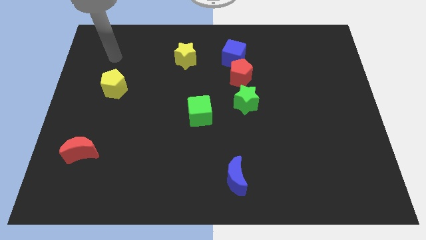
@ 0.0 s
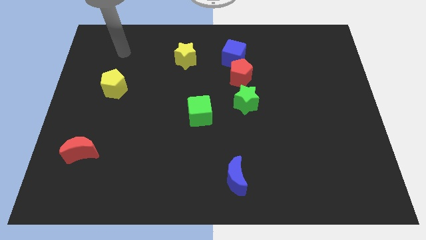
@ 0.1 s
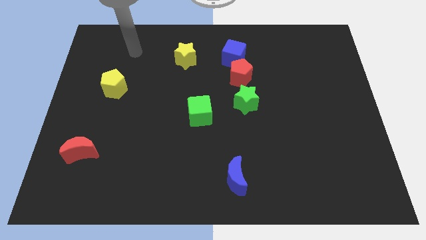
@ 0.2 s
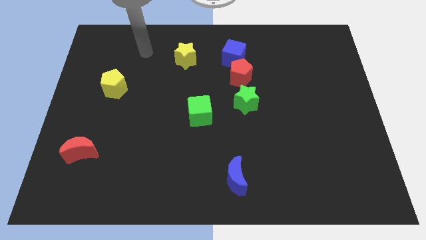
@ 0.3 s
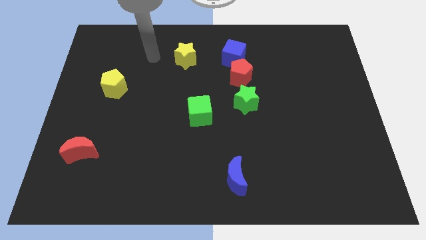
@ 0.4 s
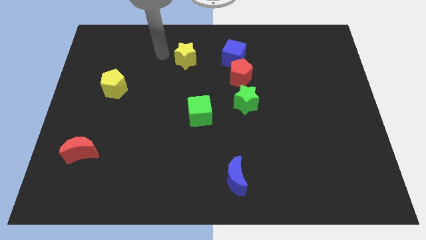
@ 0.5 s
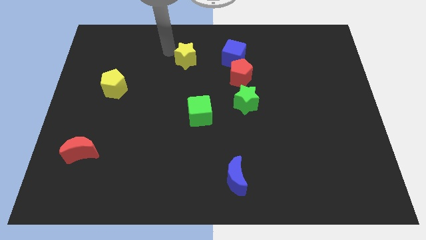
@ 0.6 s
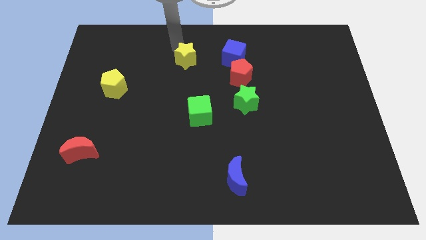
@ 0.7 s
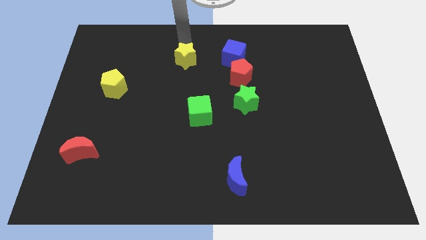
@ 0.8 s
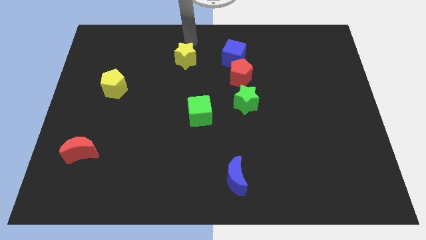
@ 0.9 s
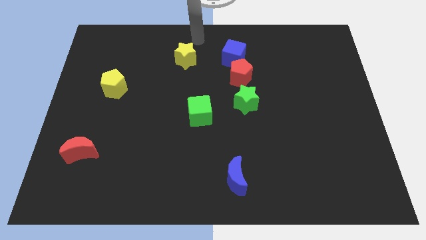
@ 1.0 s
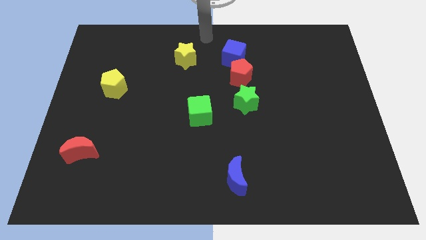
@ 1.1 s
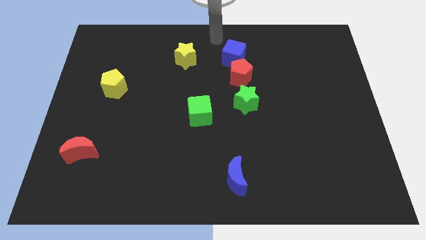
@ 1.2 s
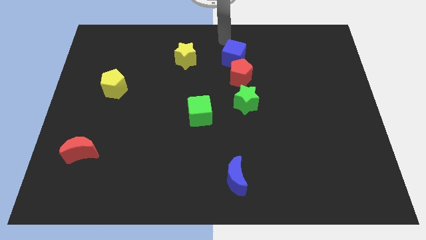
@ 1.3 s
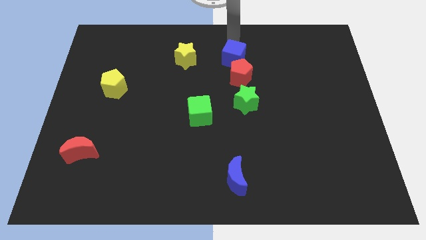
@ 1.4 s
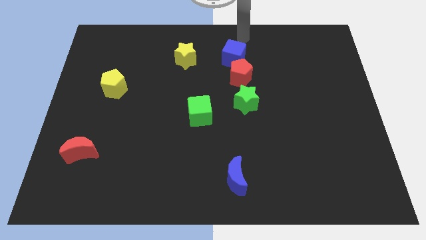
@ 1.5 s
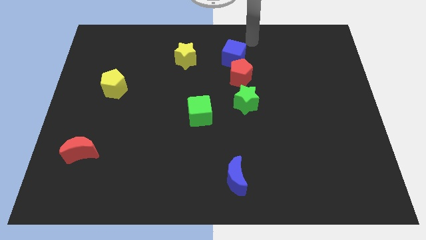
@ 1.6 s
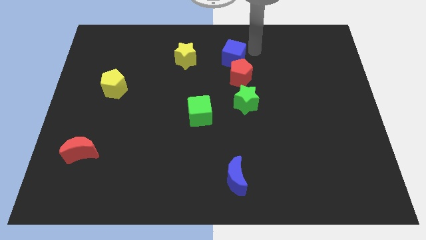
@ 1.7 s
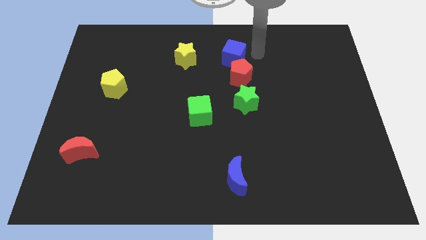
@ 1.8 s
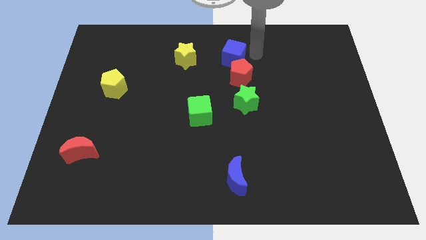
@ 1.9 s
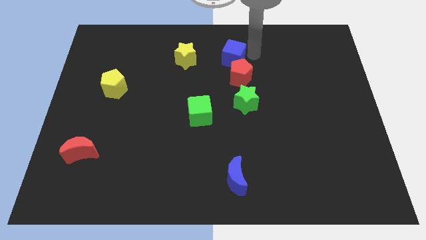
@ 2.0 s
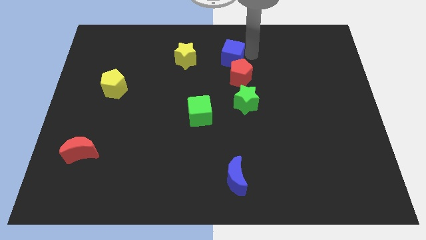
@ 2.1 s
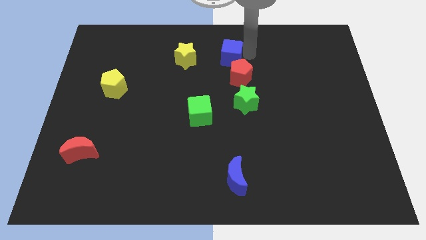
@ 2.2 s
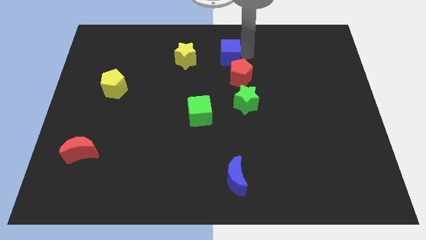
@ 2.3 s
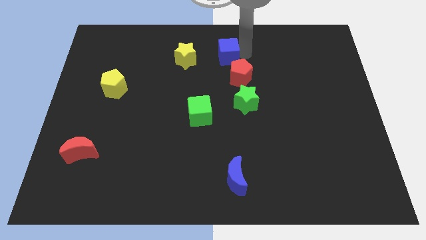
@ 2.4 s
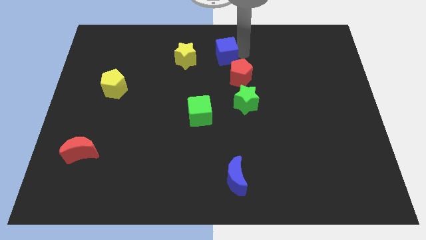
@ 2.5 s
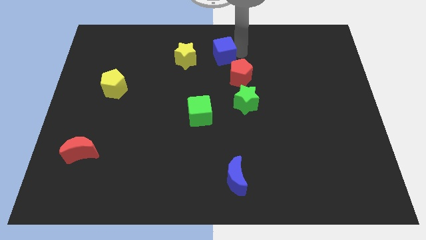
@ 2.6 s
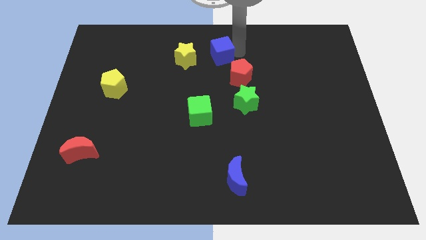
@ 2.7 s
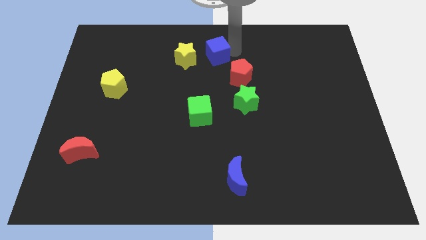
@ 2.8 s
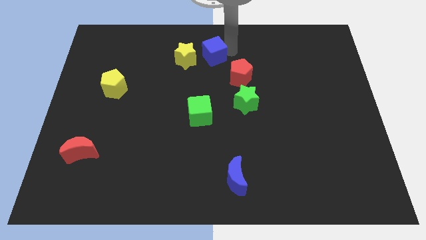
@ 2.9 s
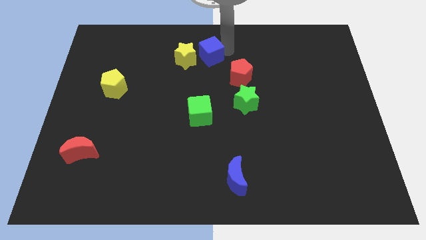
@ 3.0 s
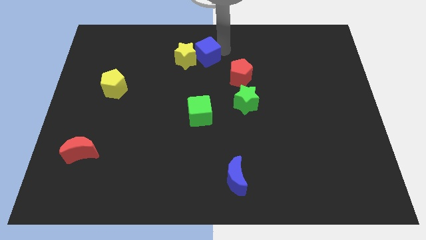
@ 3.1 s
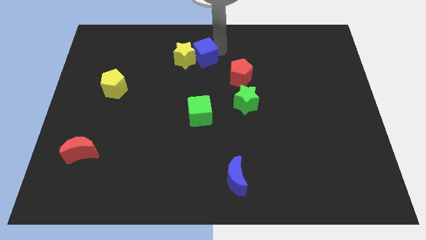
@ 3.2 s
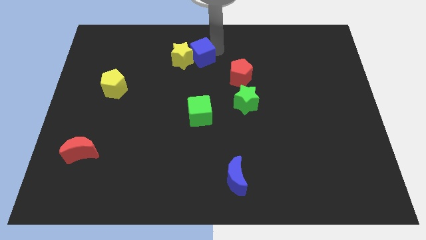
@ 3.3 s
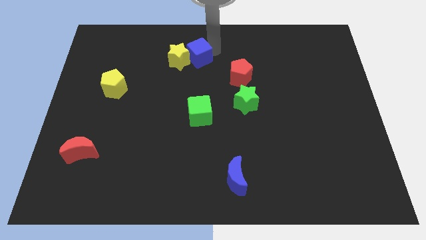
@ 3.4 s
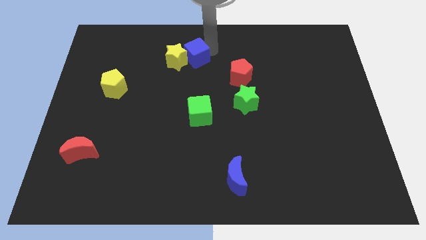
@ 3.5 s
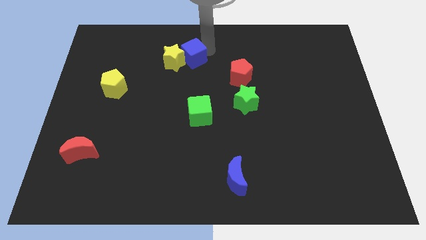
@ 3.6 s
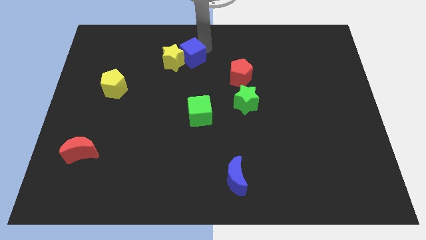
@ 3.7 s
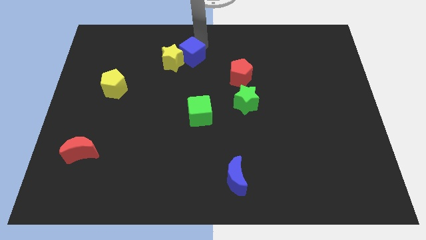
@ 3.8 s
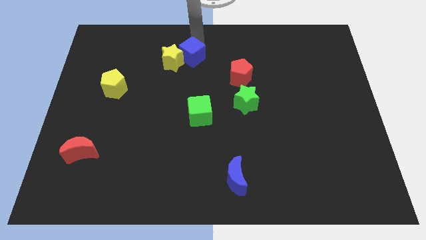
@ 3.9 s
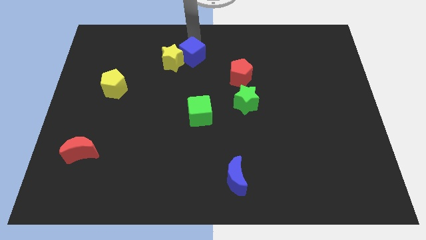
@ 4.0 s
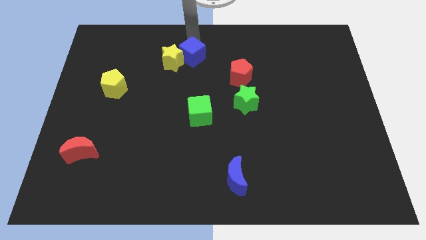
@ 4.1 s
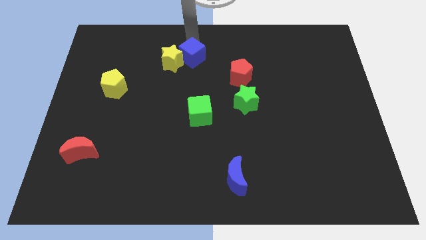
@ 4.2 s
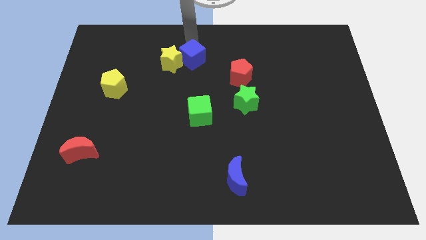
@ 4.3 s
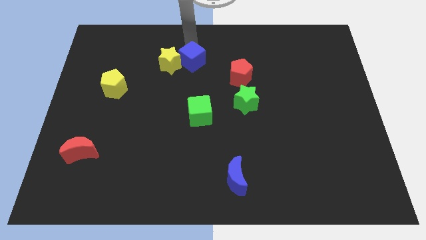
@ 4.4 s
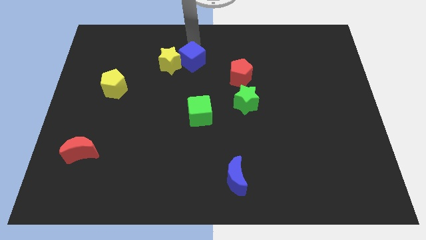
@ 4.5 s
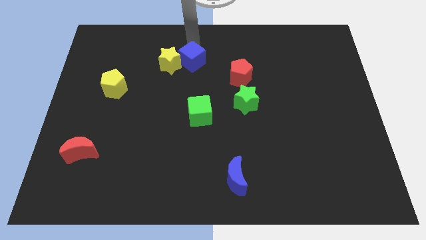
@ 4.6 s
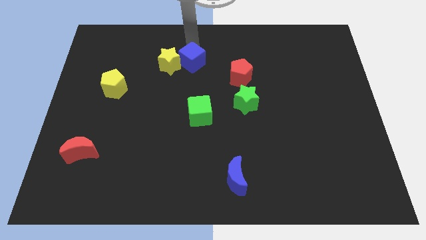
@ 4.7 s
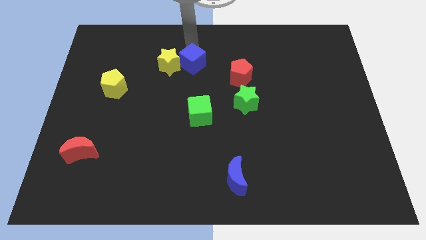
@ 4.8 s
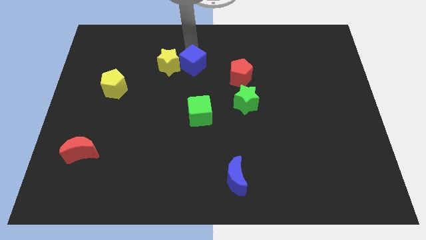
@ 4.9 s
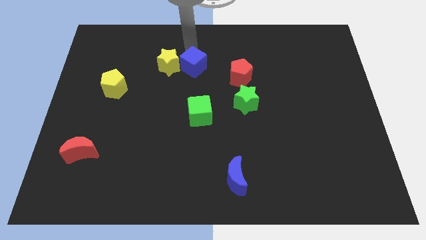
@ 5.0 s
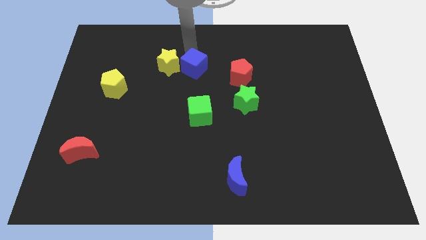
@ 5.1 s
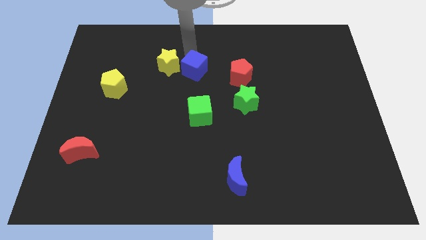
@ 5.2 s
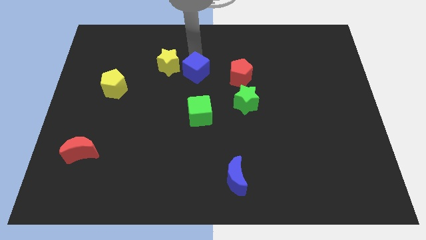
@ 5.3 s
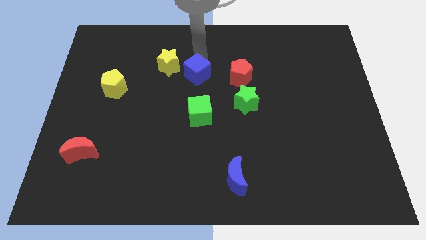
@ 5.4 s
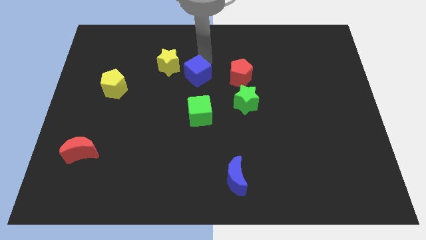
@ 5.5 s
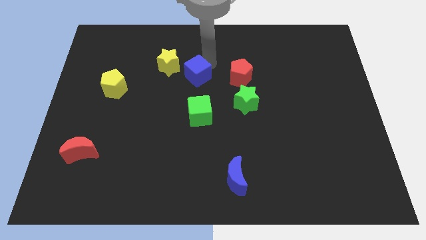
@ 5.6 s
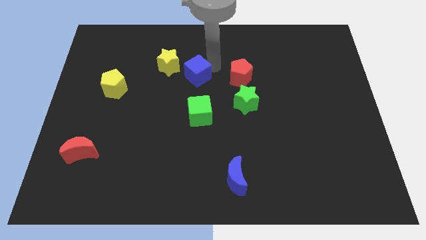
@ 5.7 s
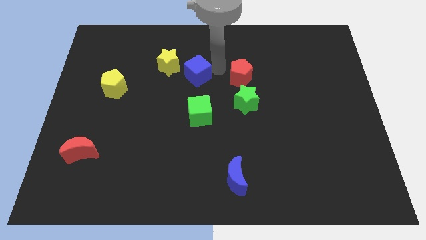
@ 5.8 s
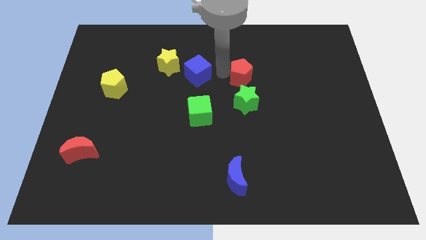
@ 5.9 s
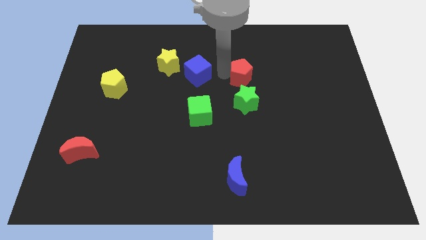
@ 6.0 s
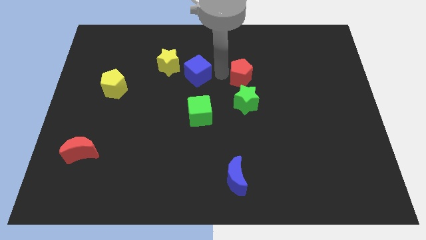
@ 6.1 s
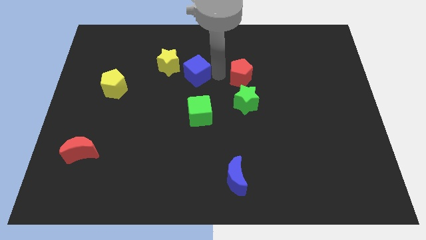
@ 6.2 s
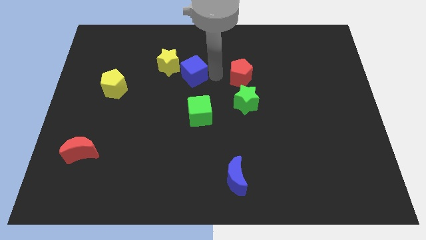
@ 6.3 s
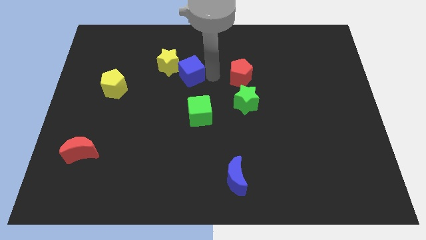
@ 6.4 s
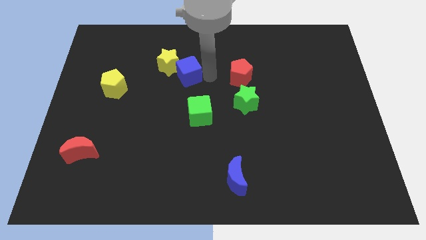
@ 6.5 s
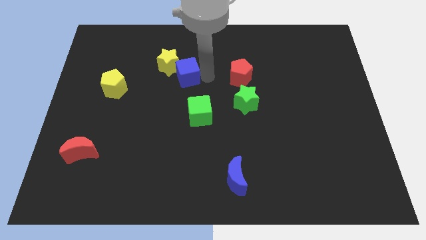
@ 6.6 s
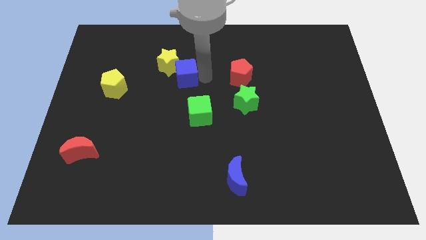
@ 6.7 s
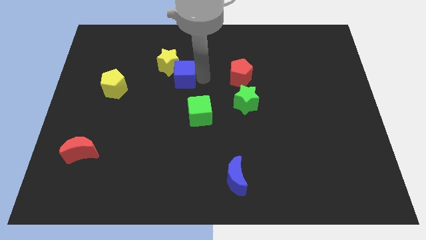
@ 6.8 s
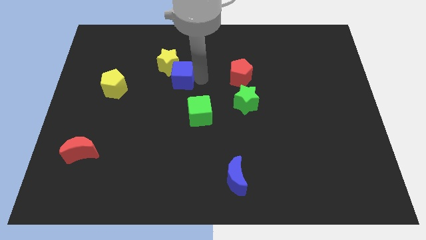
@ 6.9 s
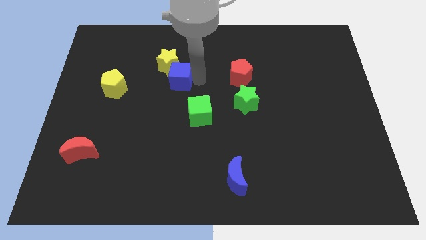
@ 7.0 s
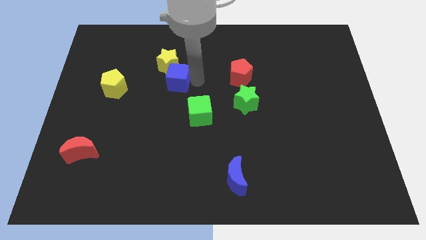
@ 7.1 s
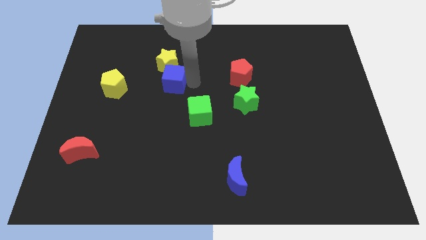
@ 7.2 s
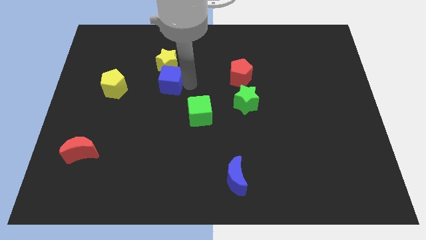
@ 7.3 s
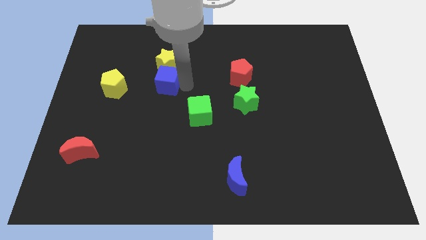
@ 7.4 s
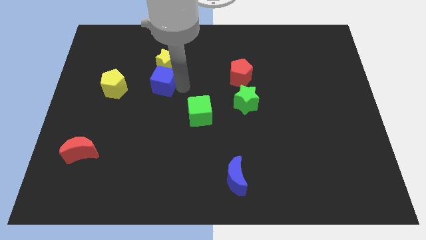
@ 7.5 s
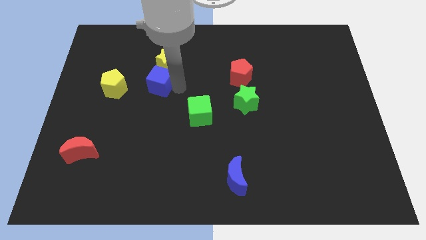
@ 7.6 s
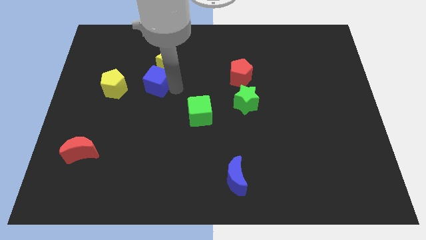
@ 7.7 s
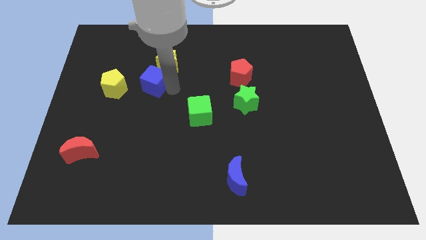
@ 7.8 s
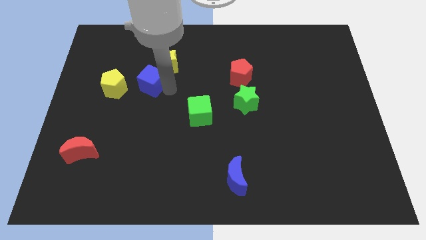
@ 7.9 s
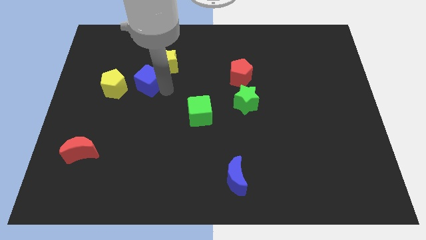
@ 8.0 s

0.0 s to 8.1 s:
slide the blue cube to the top right of the yellow pentagon
